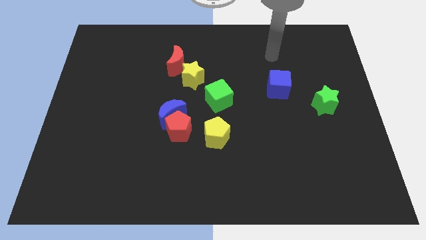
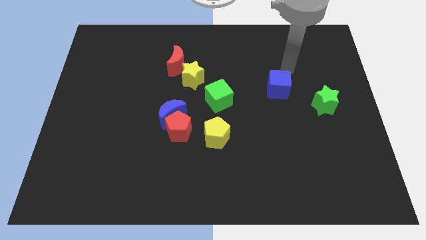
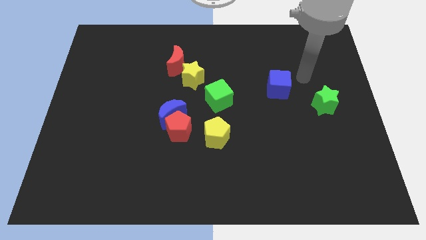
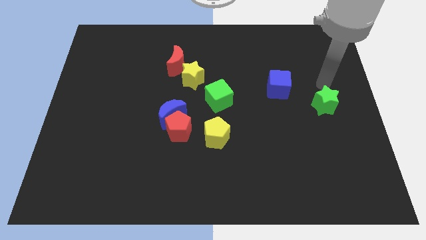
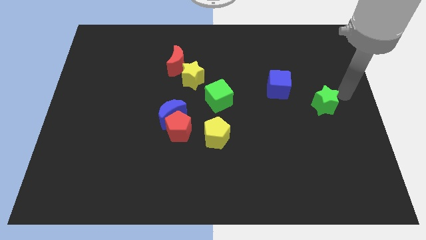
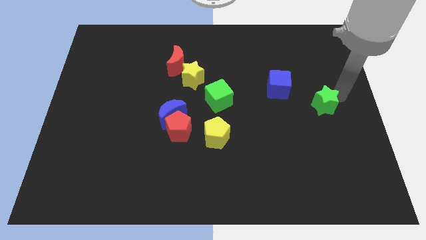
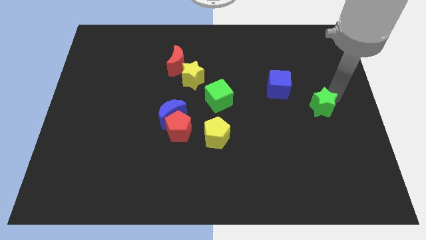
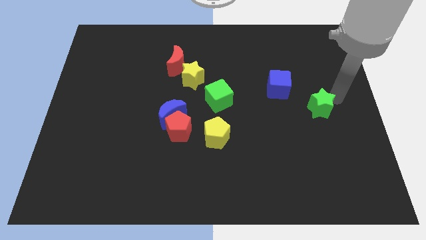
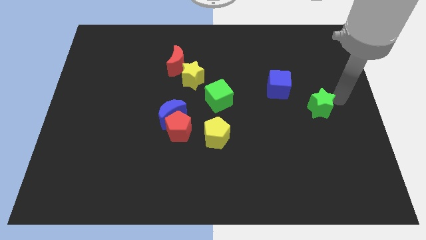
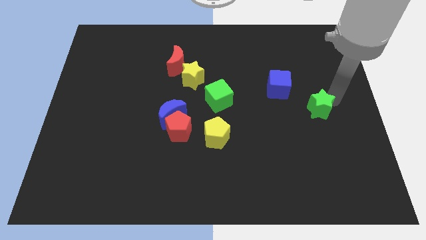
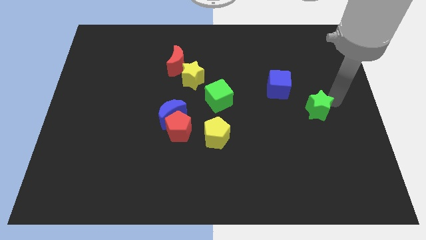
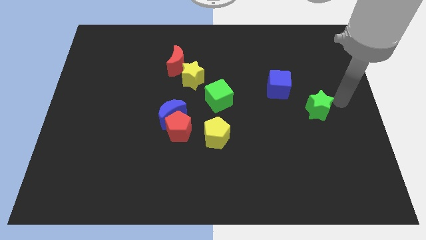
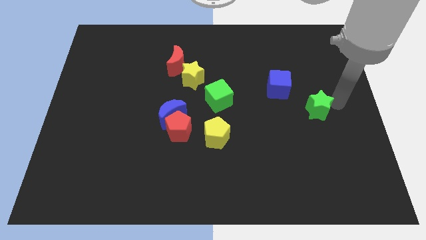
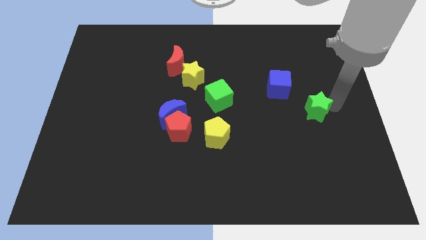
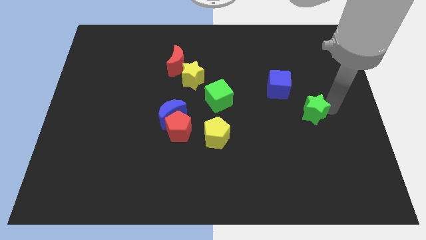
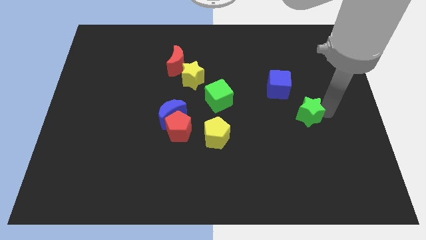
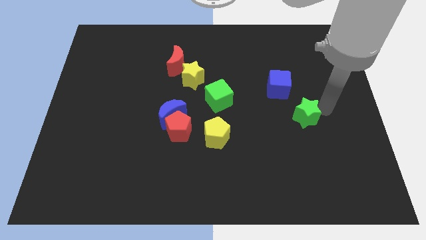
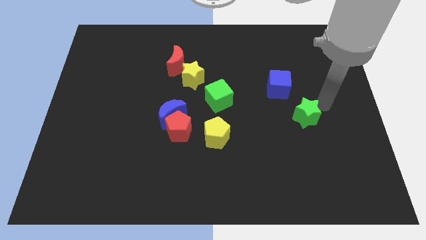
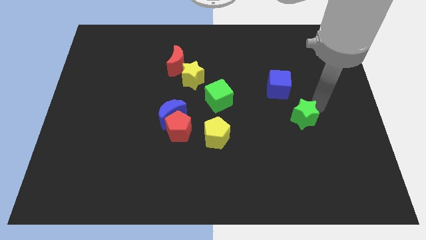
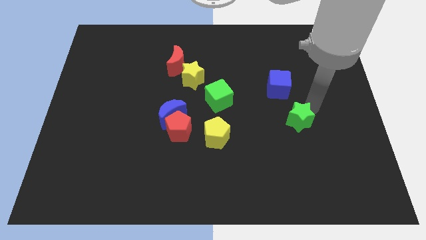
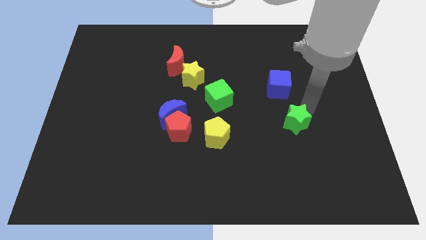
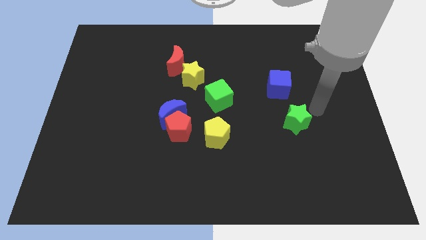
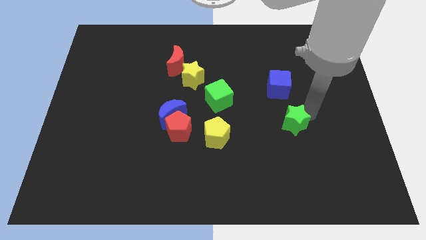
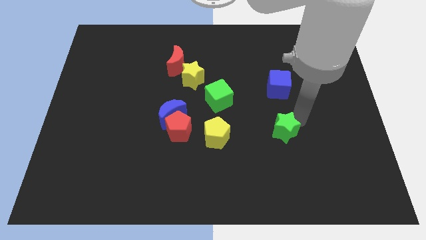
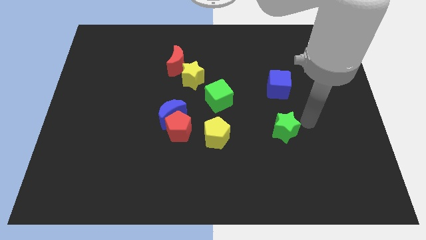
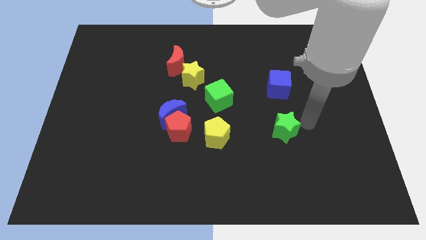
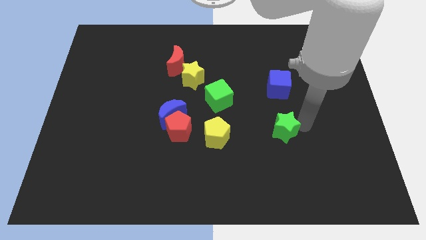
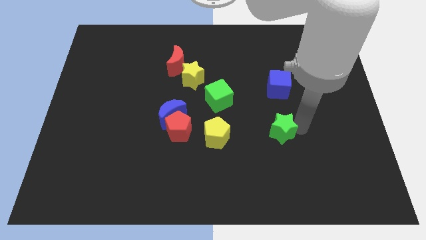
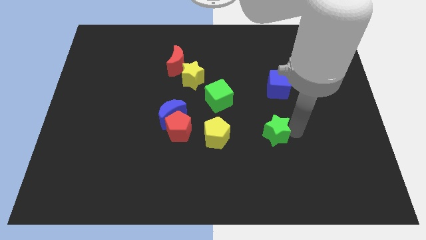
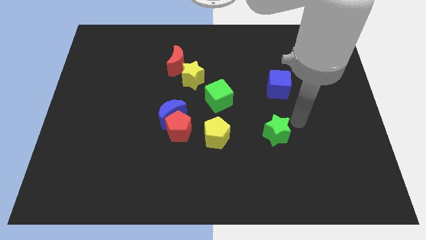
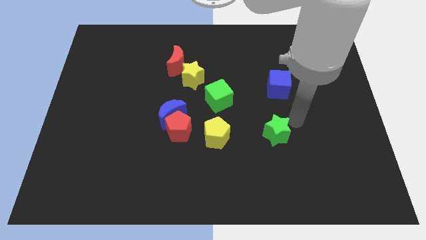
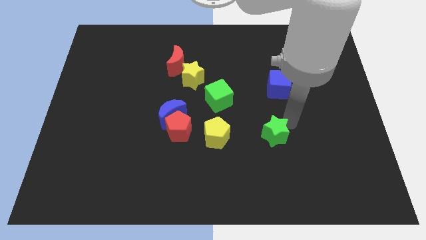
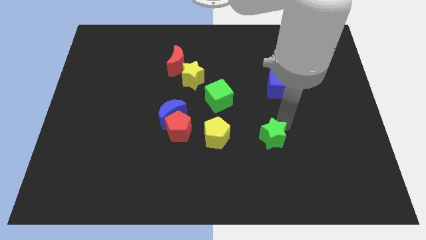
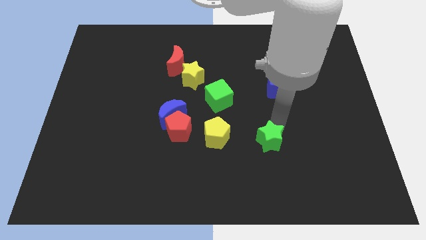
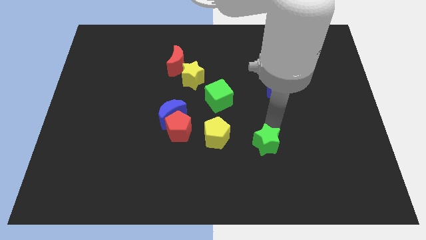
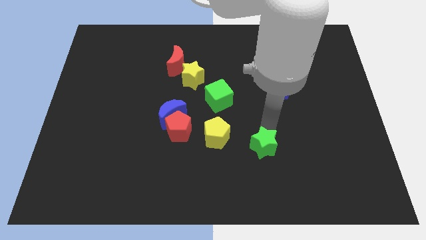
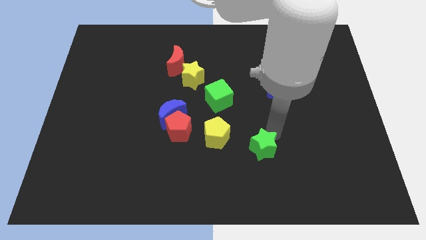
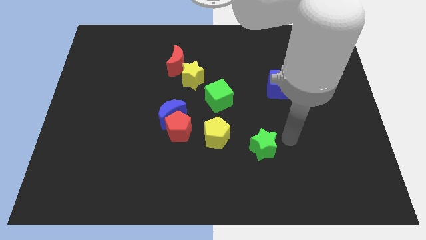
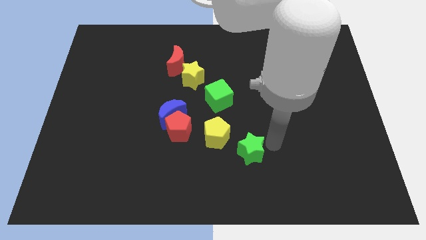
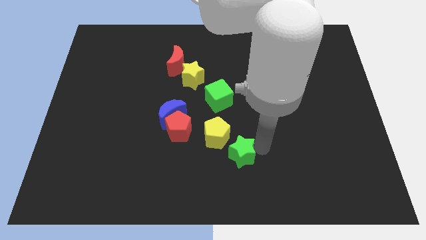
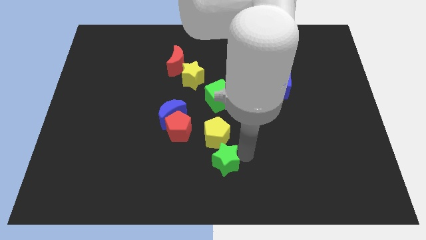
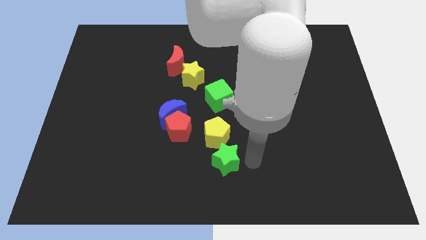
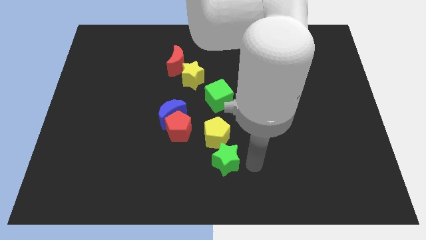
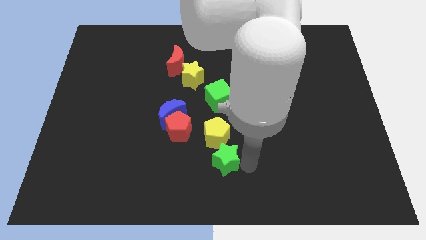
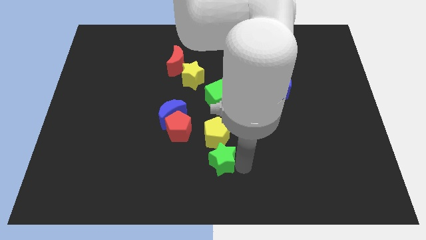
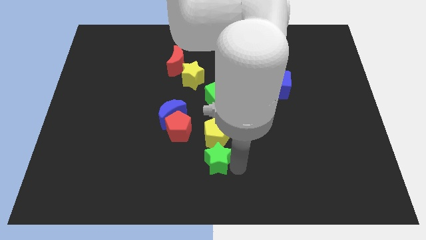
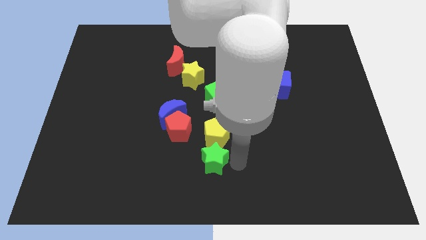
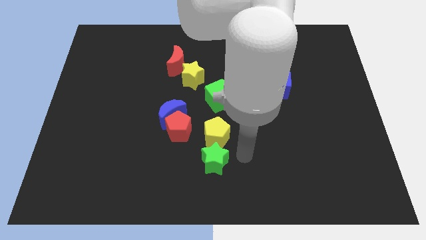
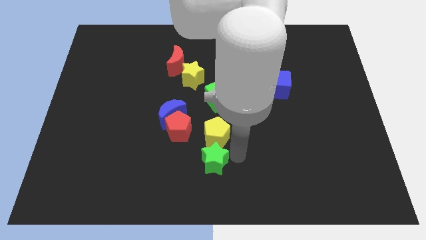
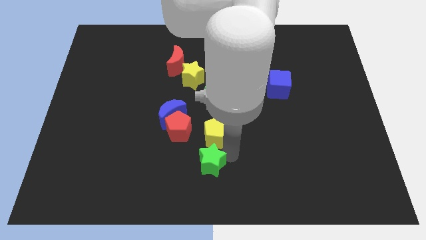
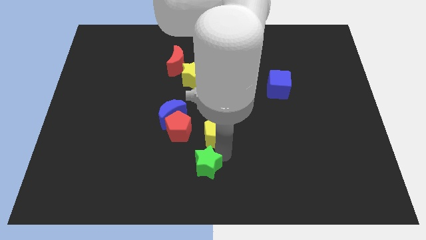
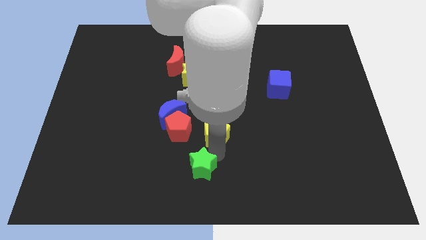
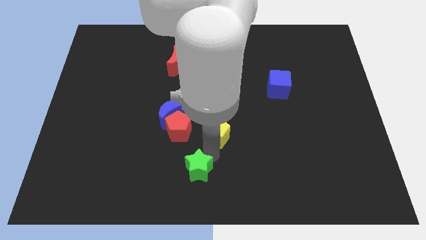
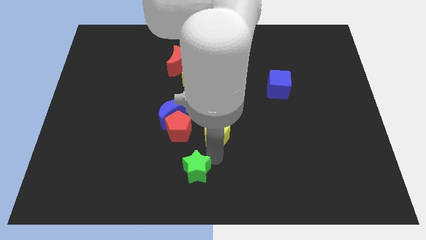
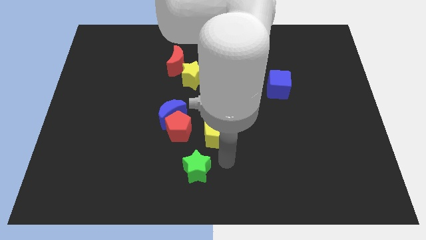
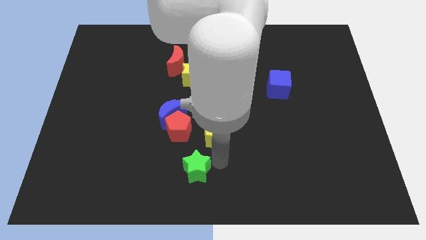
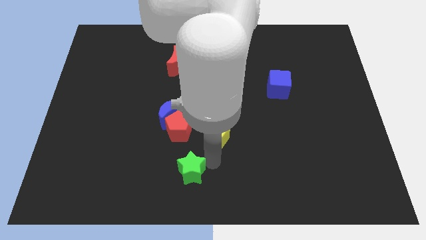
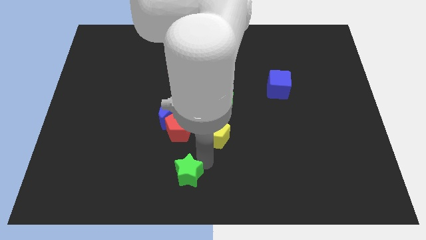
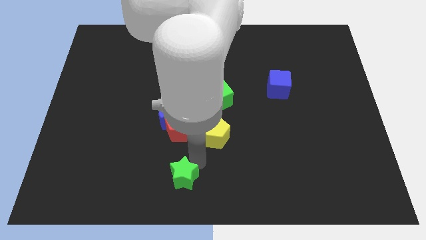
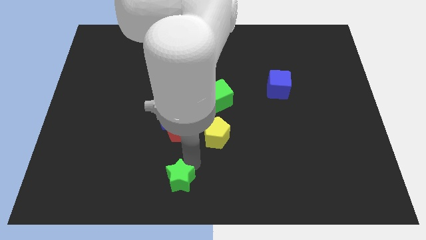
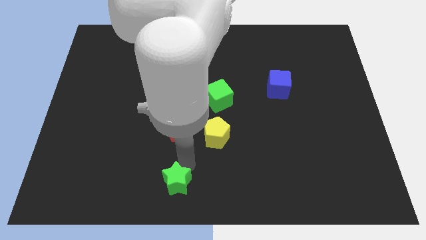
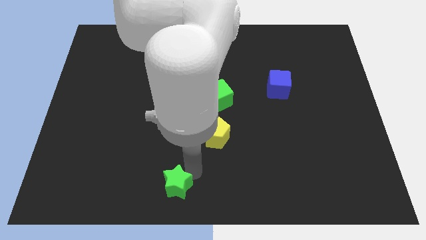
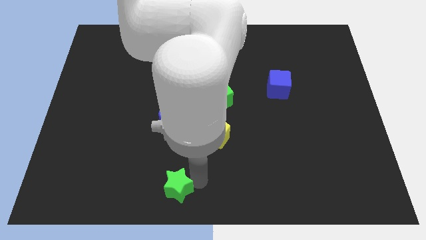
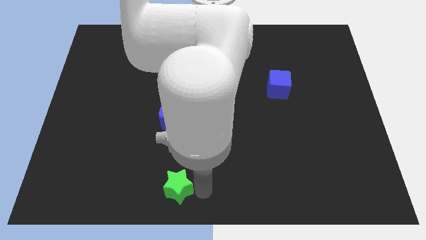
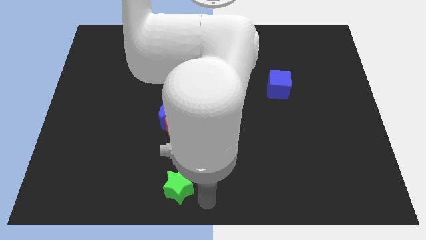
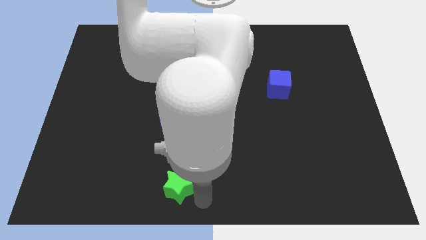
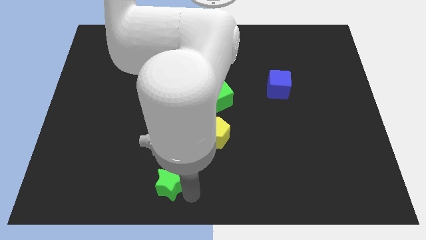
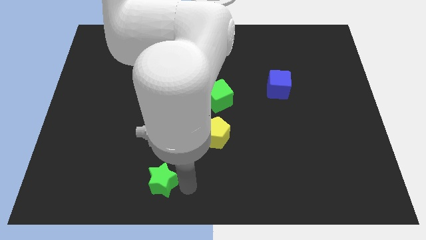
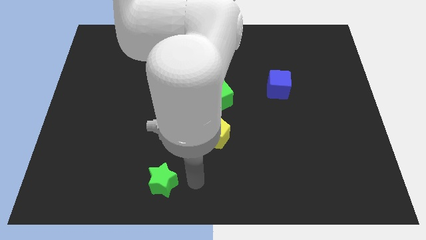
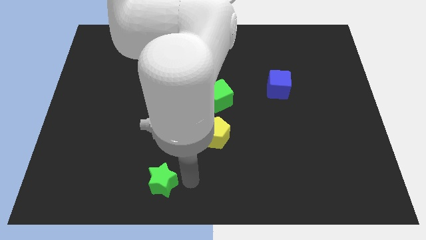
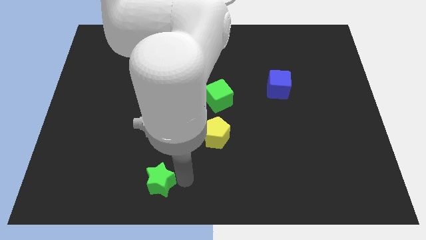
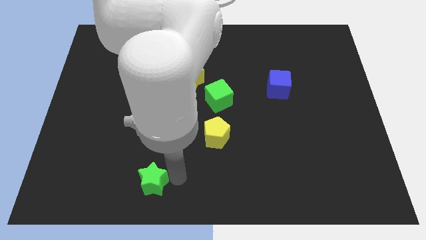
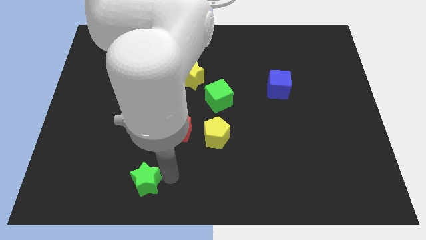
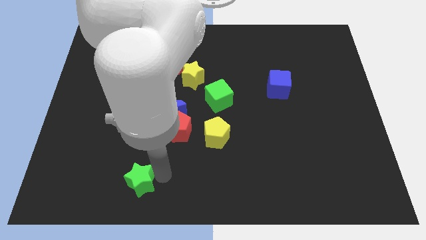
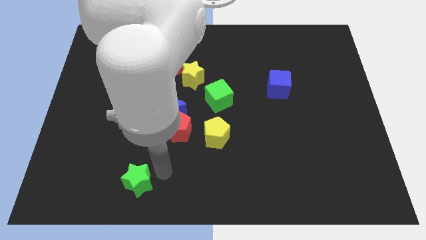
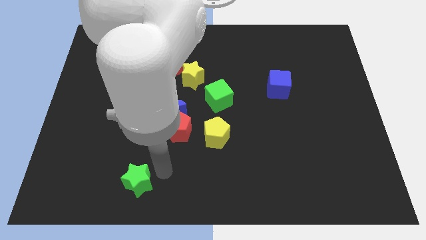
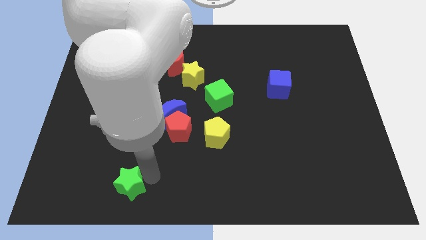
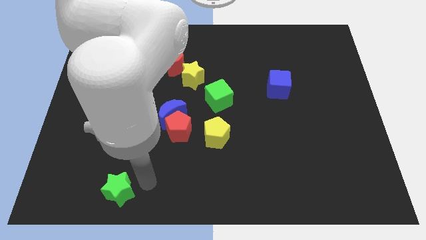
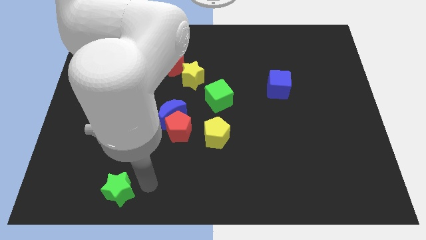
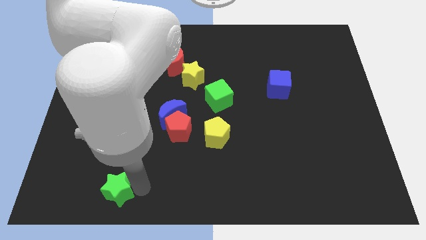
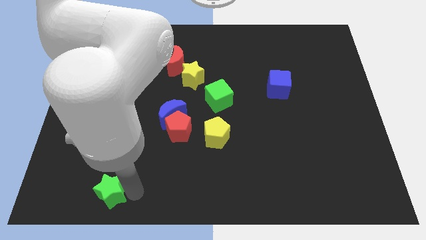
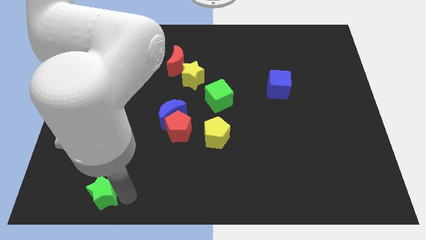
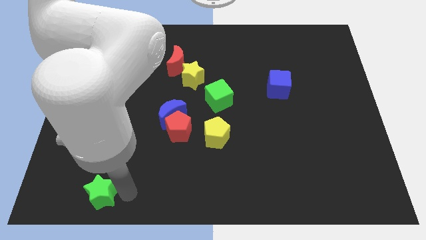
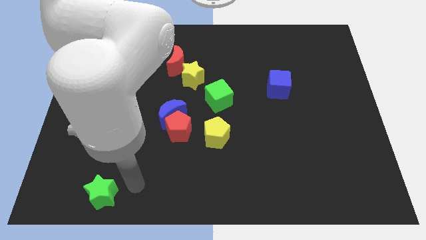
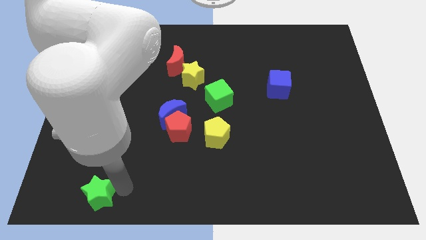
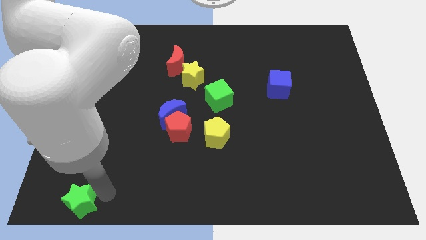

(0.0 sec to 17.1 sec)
move the green star to the bottom left corner
